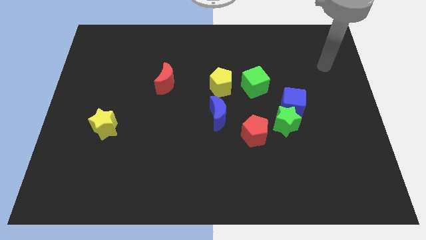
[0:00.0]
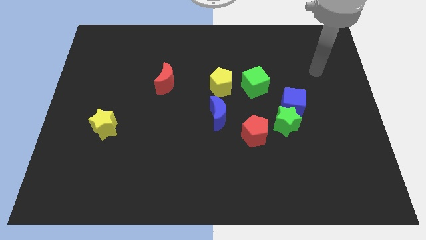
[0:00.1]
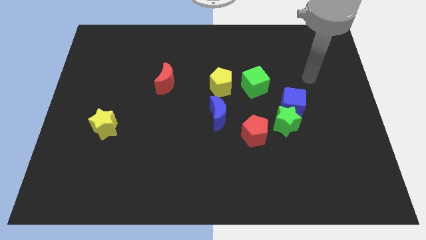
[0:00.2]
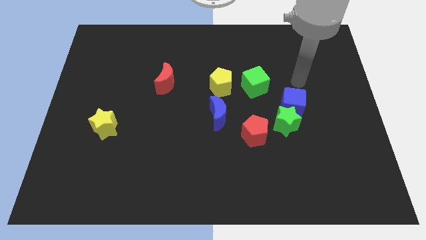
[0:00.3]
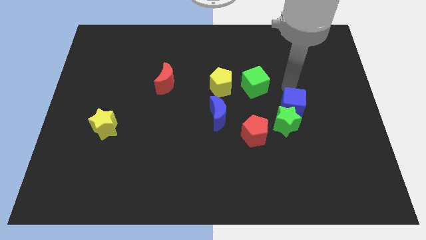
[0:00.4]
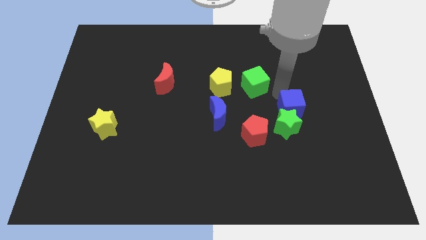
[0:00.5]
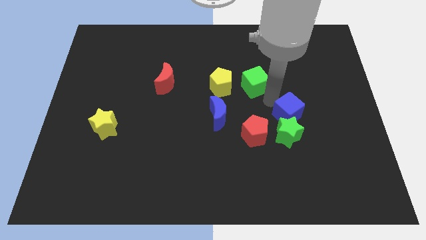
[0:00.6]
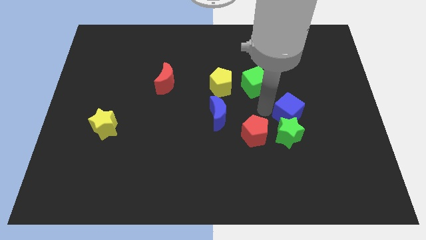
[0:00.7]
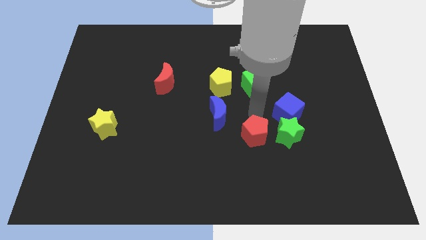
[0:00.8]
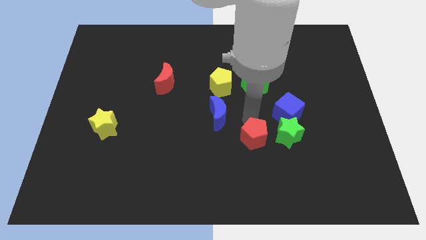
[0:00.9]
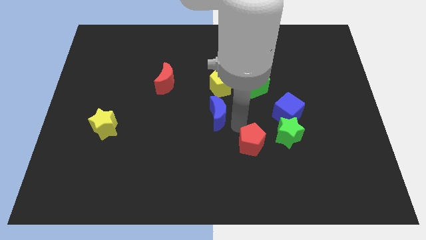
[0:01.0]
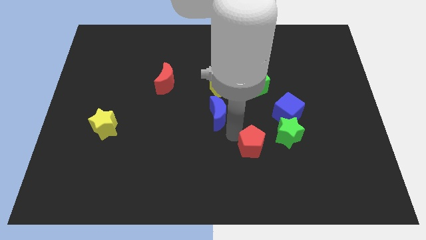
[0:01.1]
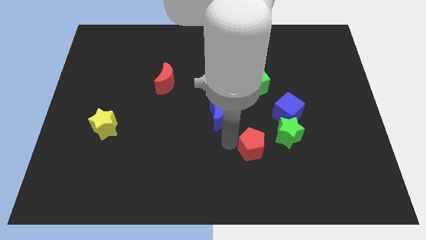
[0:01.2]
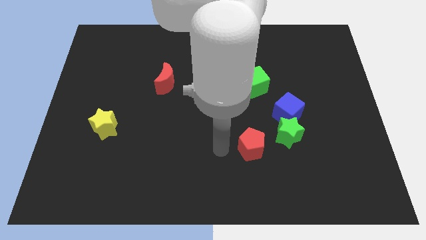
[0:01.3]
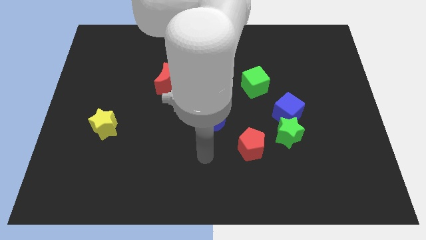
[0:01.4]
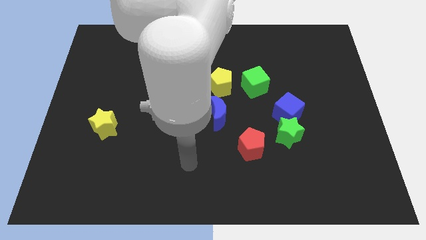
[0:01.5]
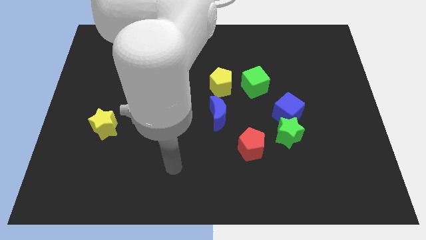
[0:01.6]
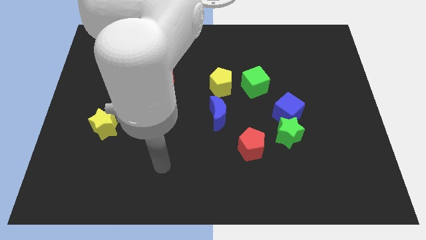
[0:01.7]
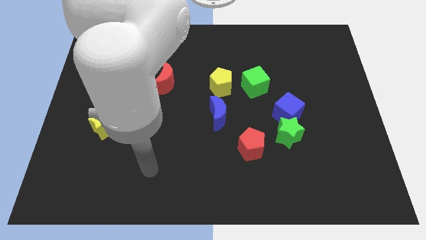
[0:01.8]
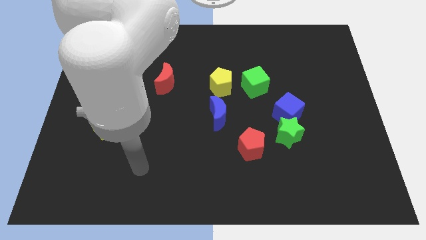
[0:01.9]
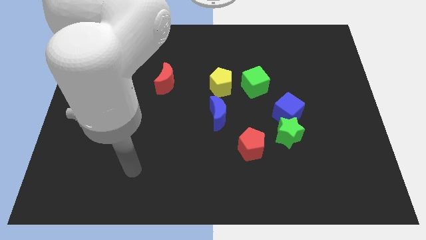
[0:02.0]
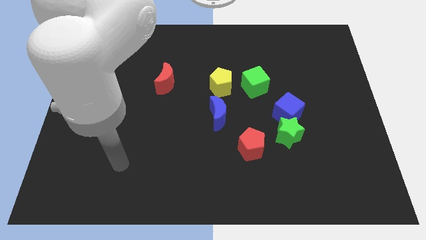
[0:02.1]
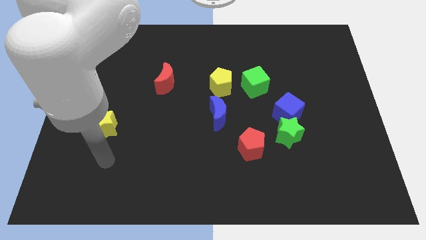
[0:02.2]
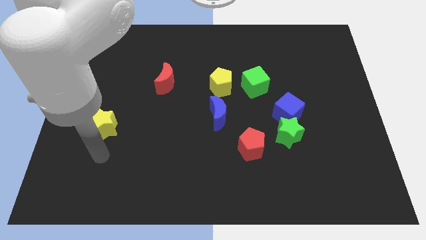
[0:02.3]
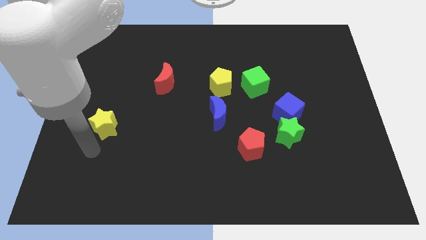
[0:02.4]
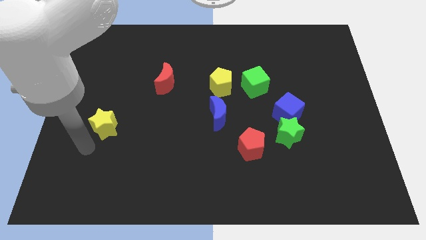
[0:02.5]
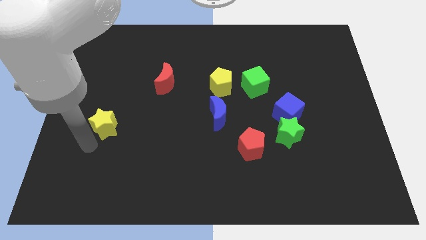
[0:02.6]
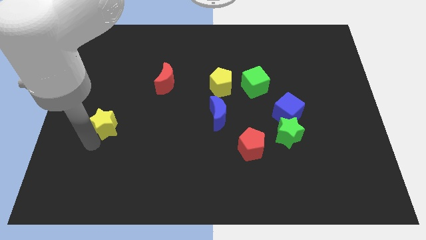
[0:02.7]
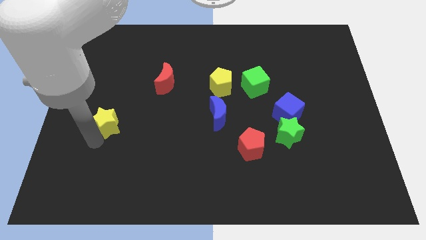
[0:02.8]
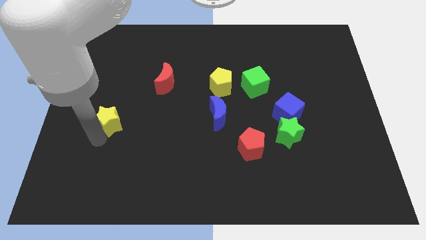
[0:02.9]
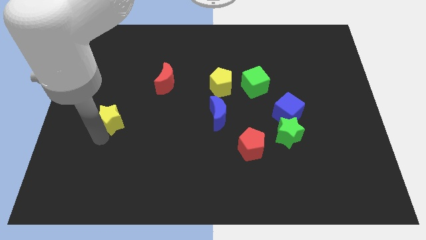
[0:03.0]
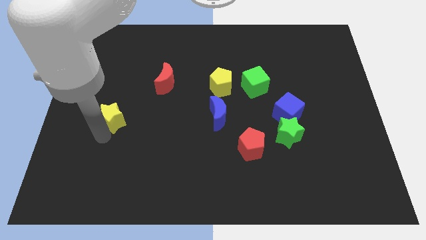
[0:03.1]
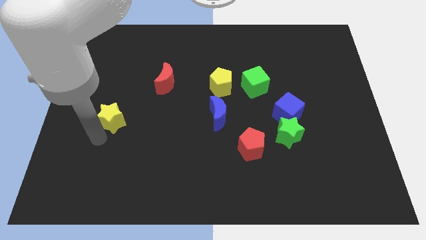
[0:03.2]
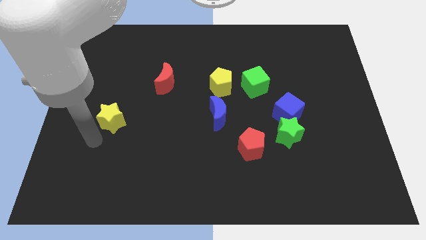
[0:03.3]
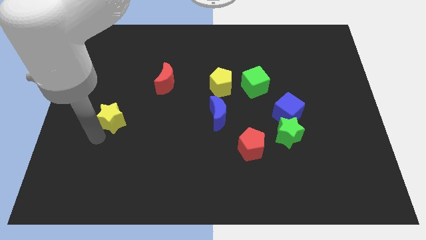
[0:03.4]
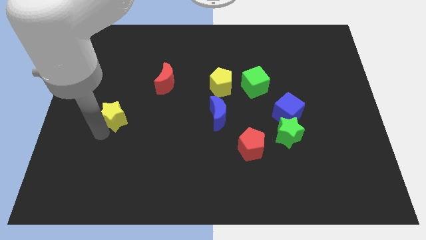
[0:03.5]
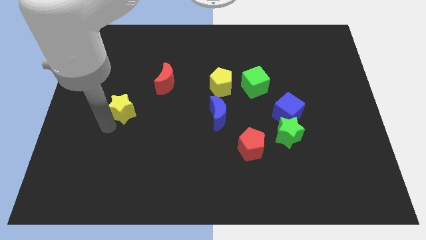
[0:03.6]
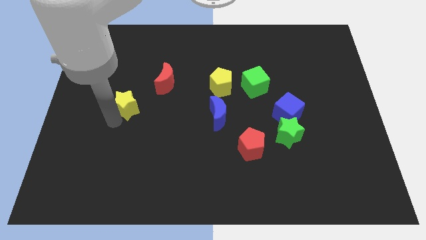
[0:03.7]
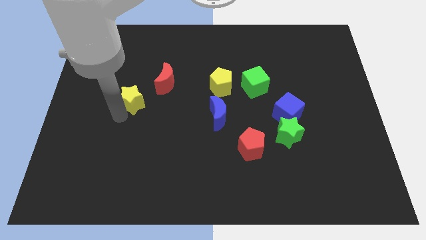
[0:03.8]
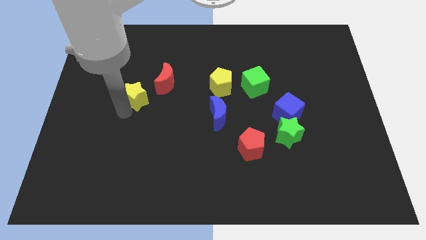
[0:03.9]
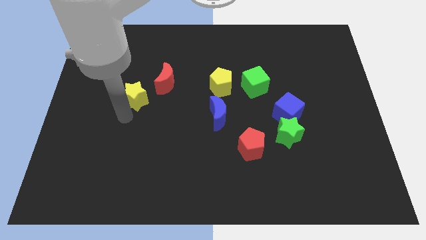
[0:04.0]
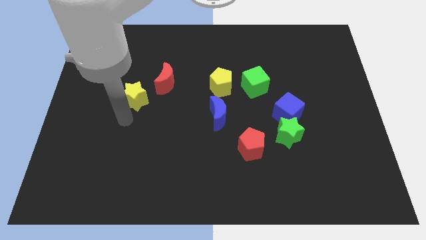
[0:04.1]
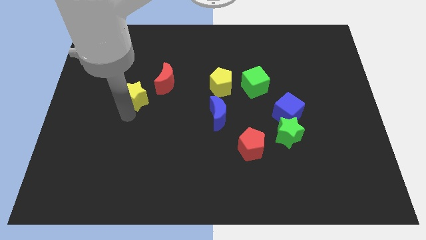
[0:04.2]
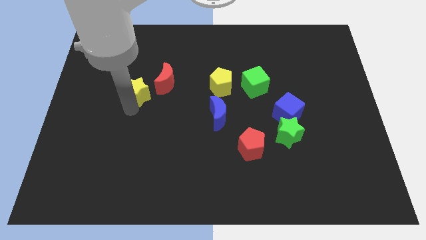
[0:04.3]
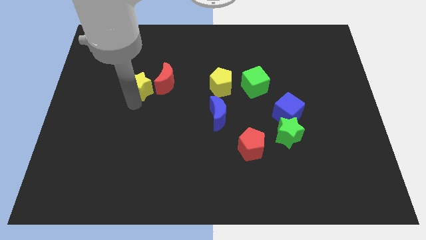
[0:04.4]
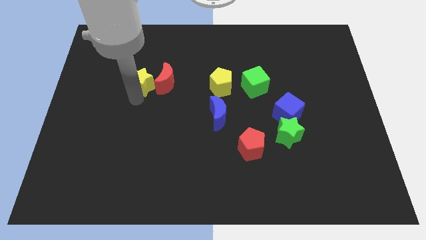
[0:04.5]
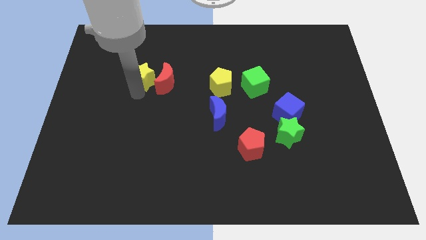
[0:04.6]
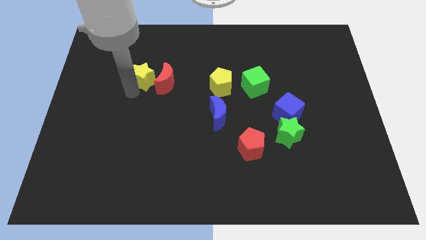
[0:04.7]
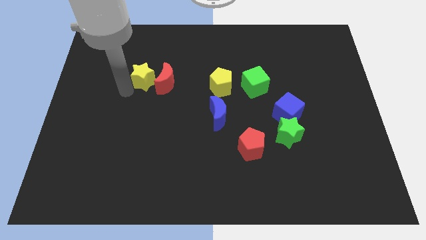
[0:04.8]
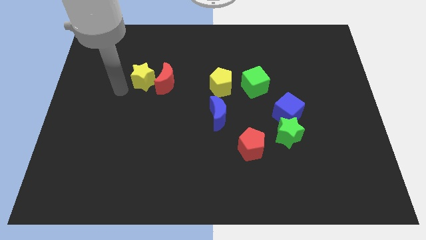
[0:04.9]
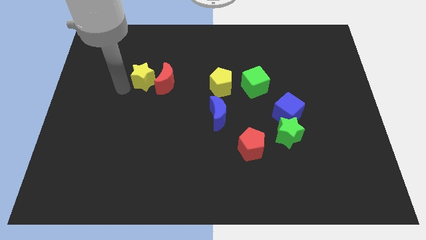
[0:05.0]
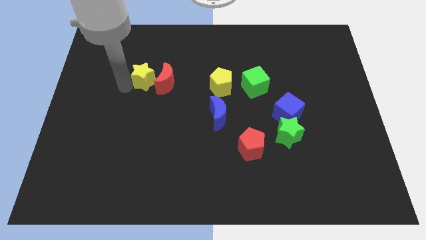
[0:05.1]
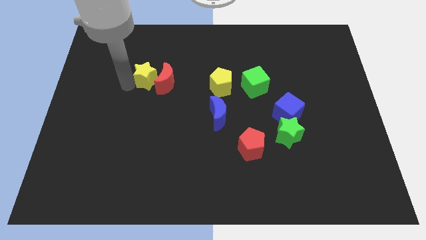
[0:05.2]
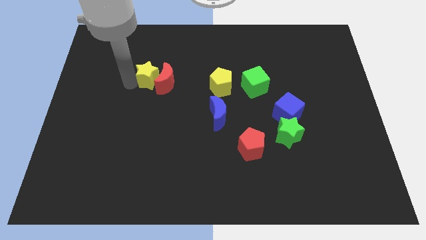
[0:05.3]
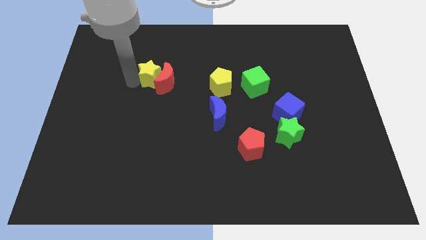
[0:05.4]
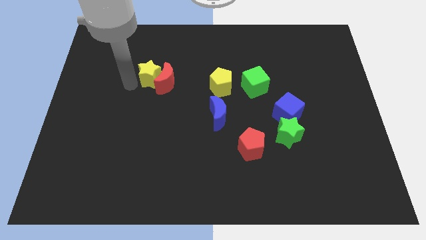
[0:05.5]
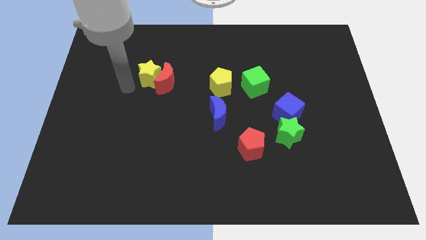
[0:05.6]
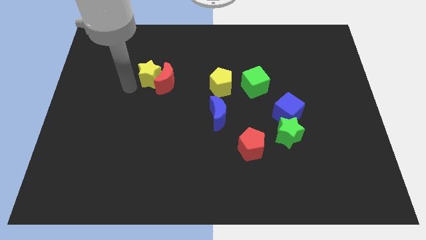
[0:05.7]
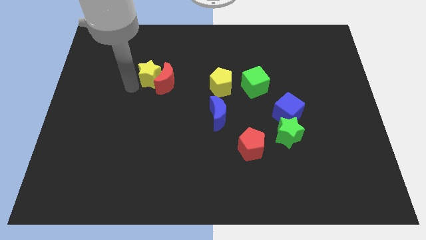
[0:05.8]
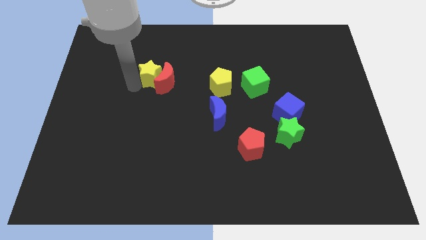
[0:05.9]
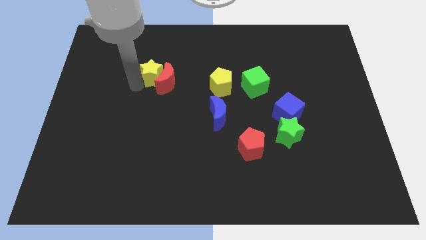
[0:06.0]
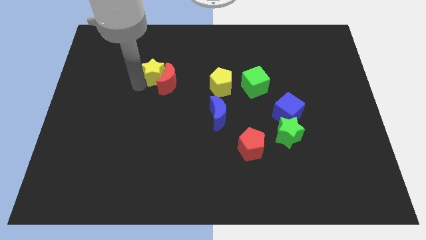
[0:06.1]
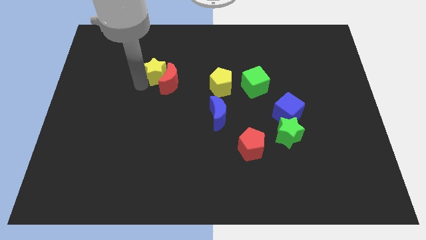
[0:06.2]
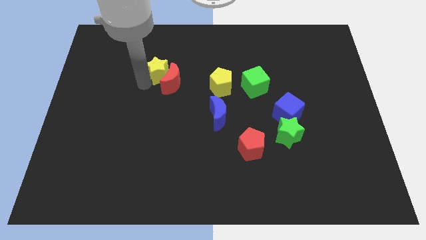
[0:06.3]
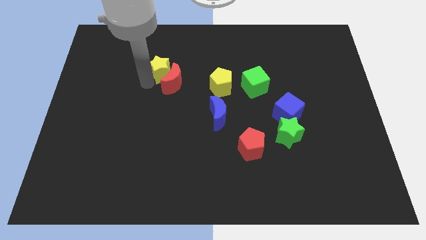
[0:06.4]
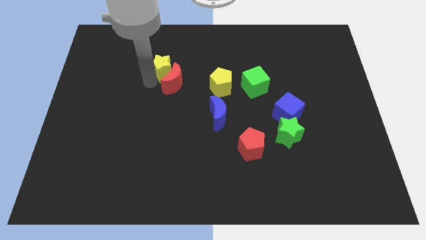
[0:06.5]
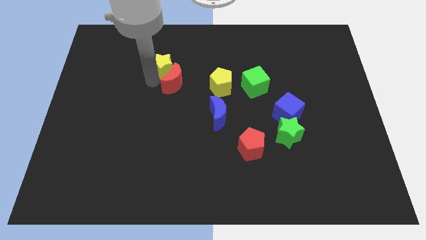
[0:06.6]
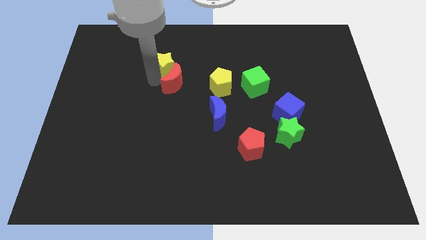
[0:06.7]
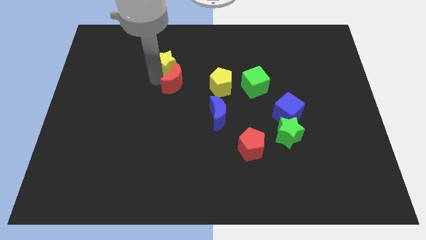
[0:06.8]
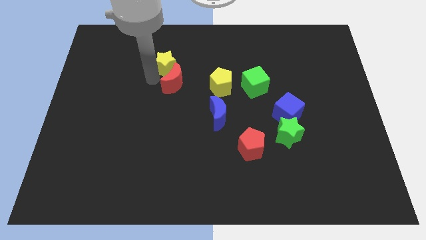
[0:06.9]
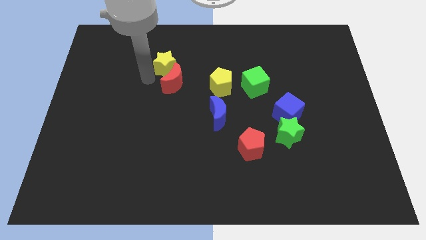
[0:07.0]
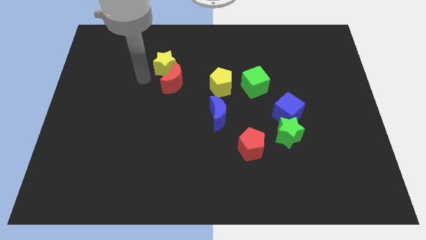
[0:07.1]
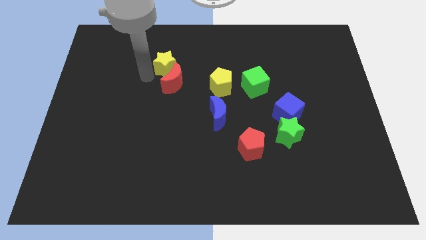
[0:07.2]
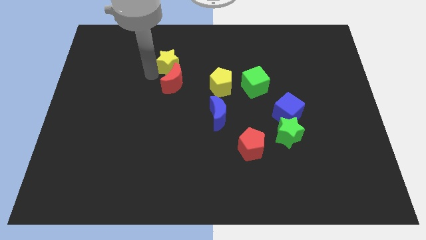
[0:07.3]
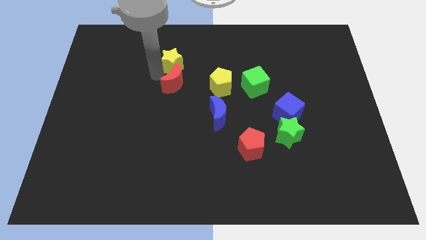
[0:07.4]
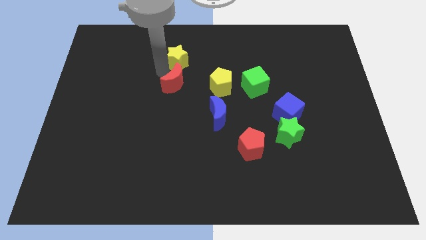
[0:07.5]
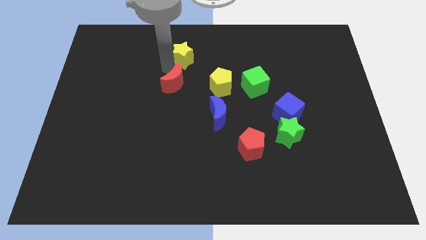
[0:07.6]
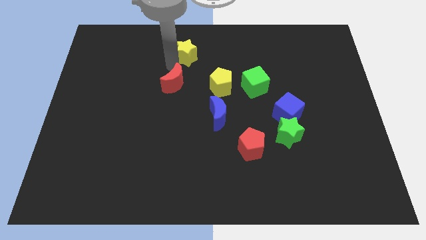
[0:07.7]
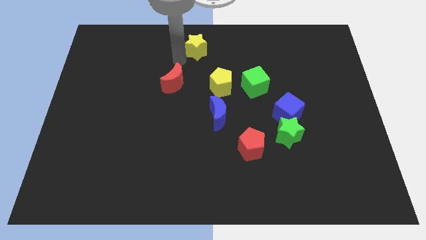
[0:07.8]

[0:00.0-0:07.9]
move the yellow star to the top
